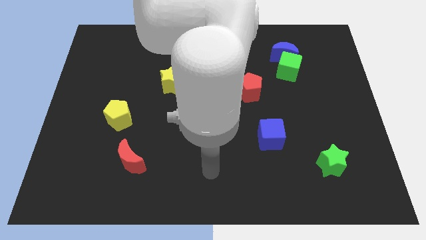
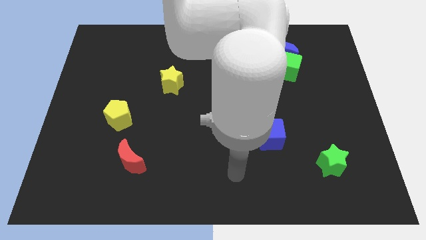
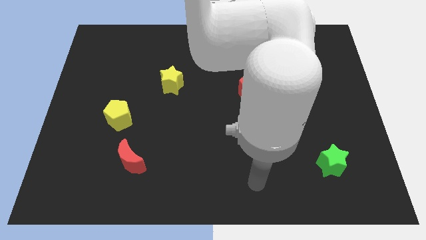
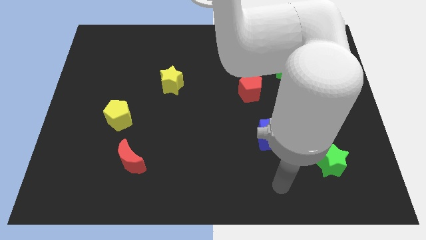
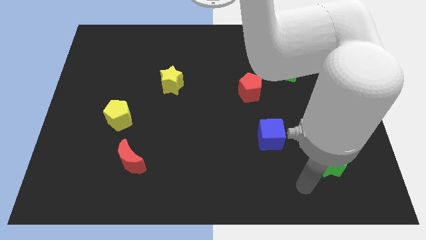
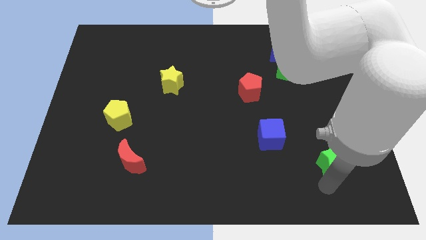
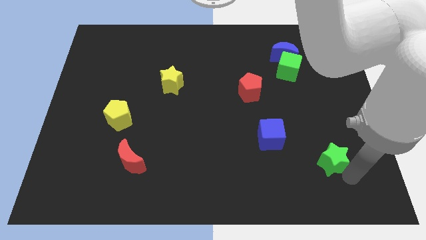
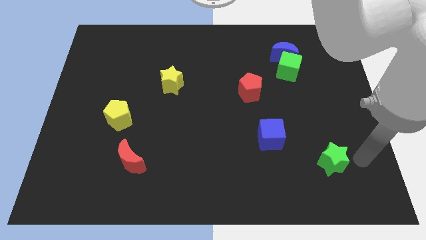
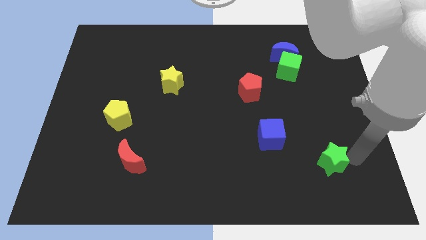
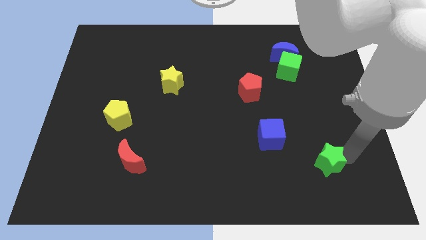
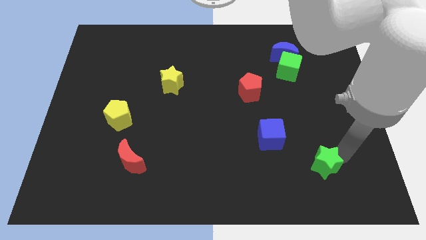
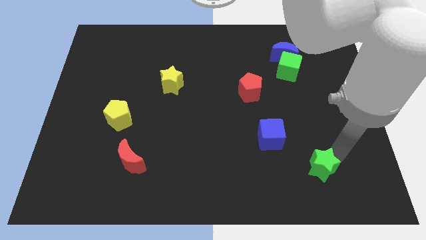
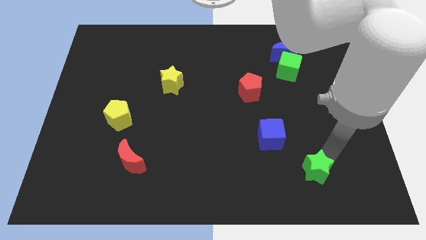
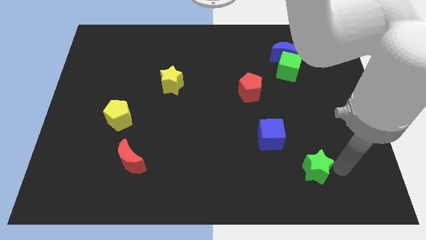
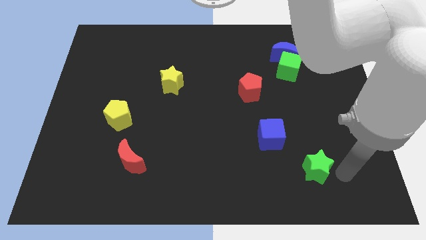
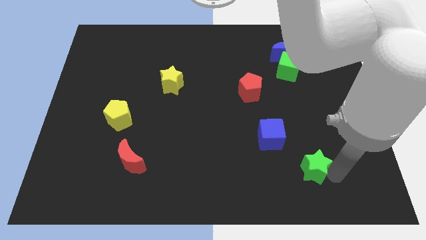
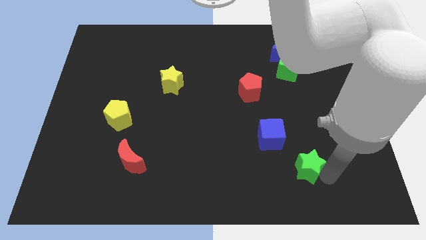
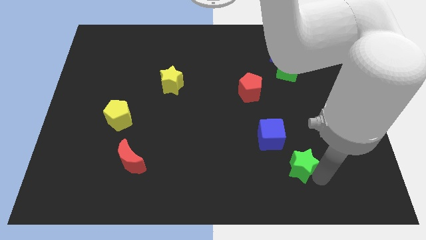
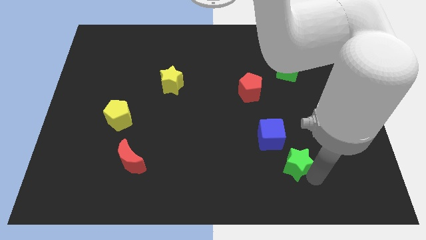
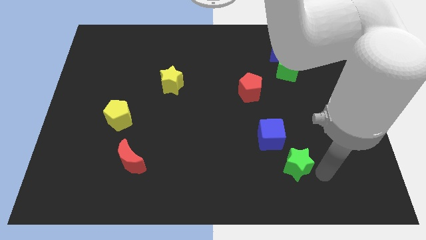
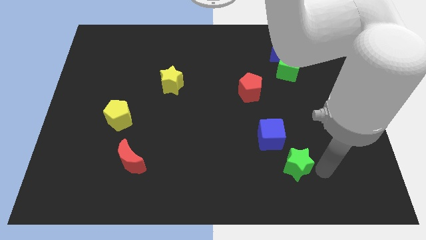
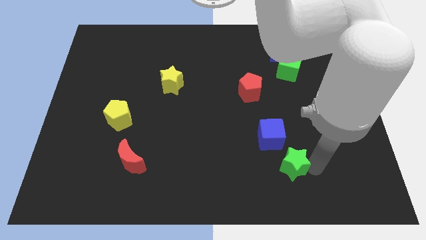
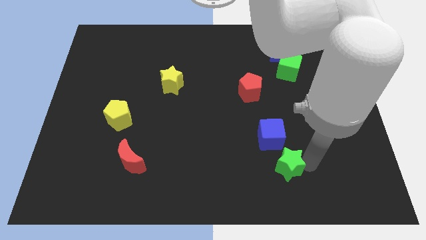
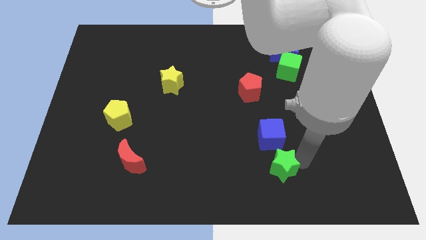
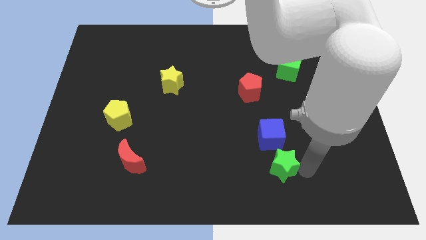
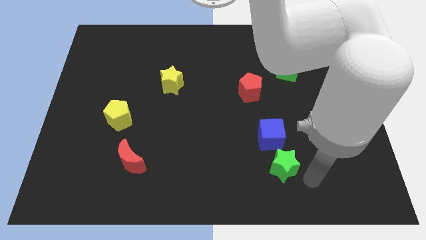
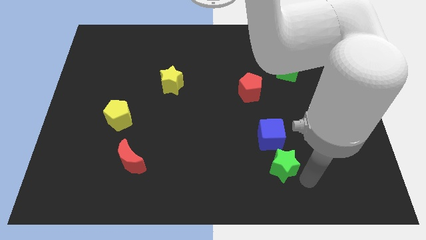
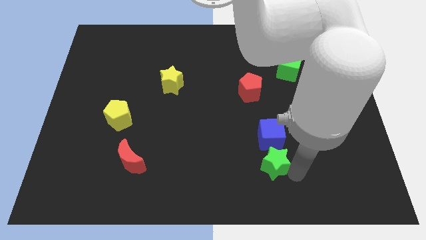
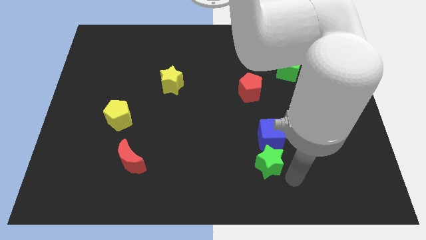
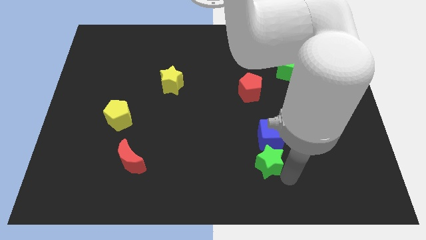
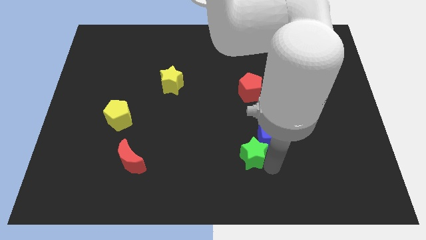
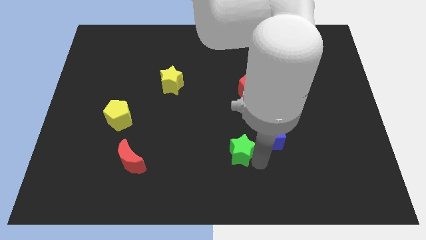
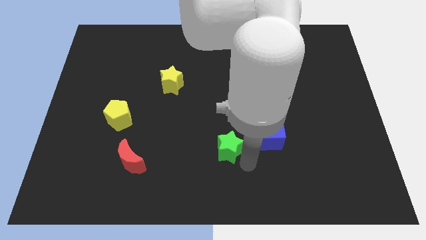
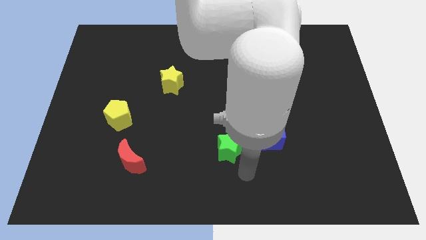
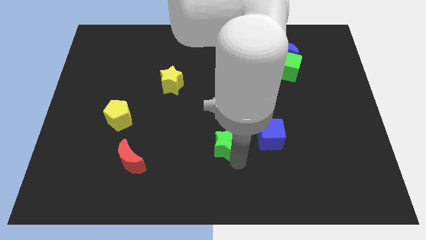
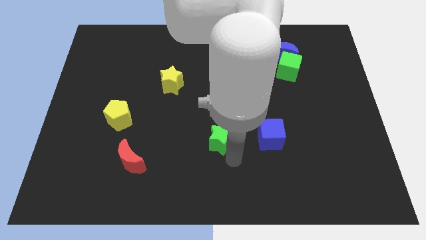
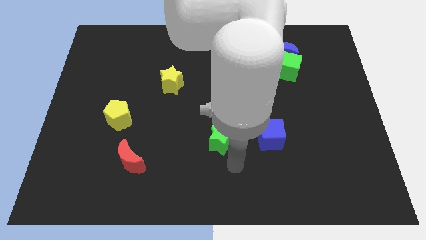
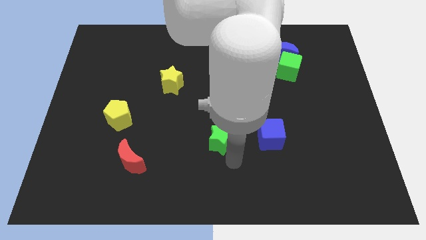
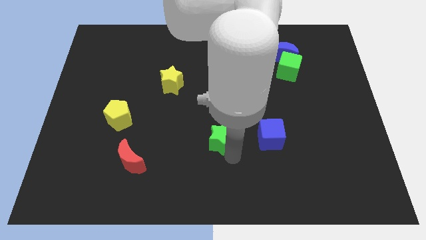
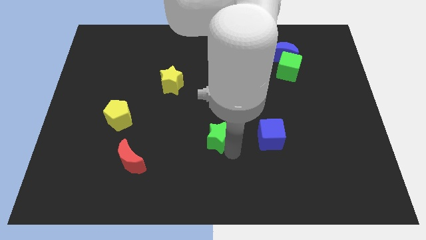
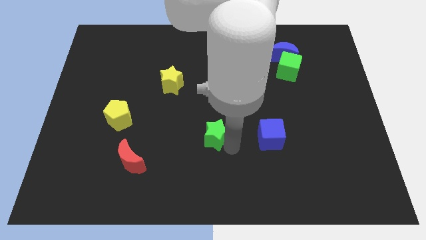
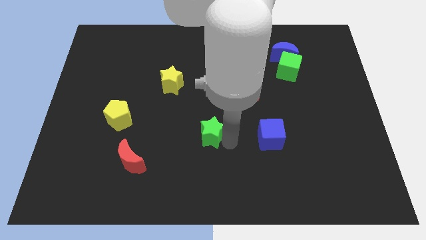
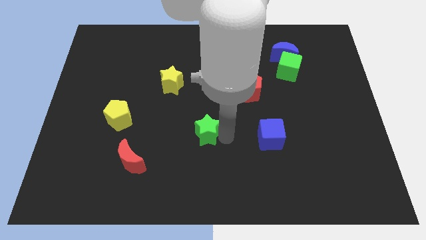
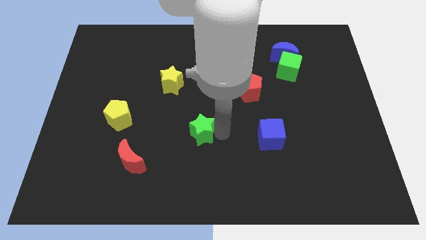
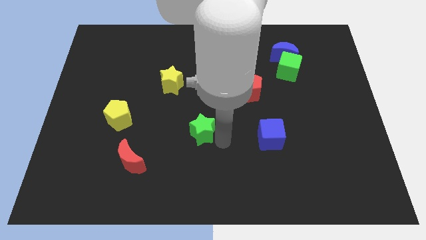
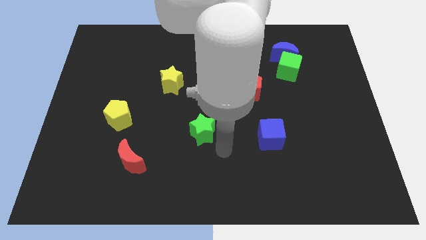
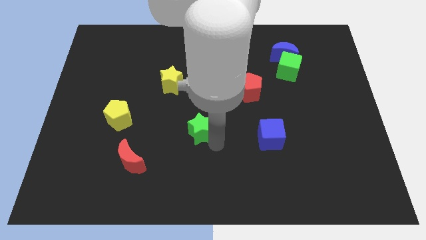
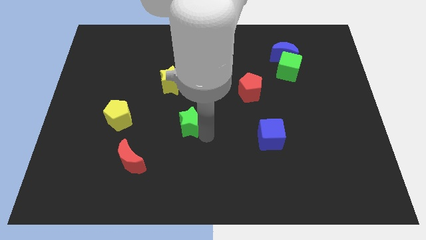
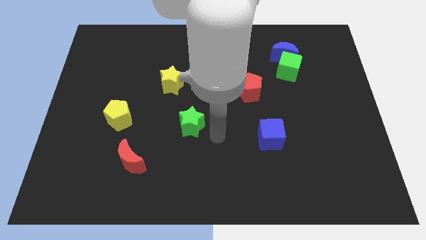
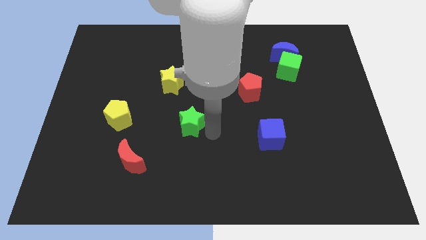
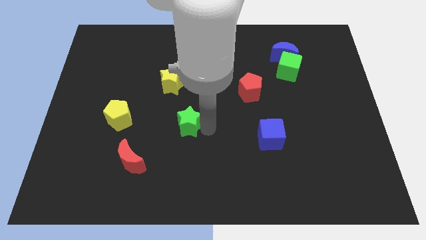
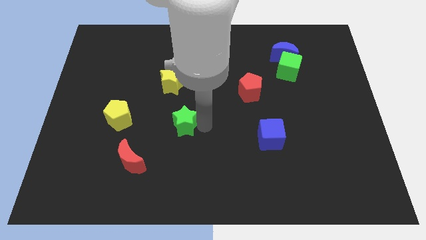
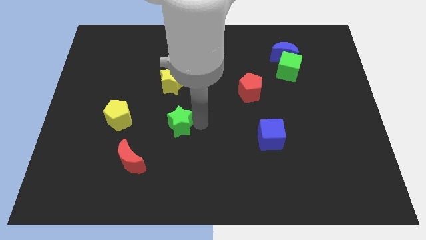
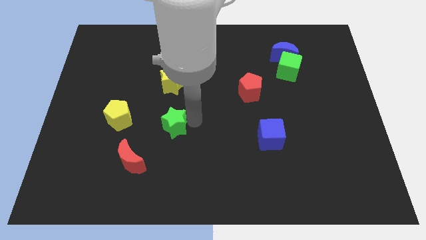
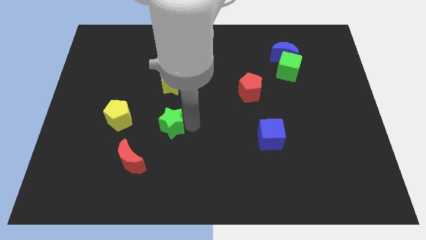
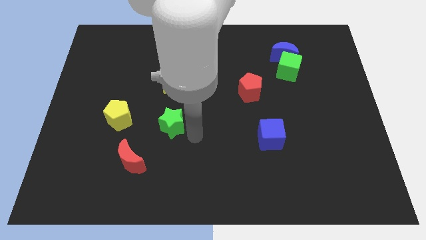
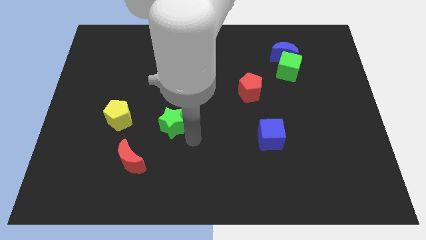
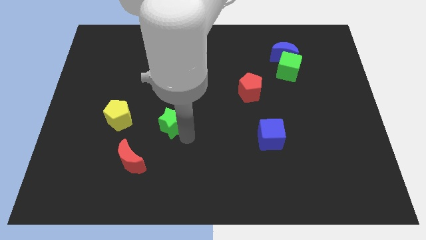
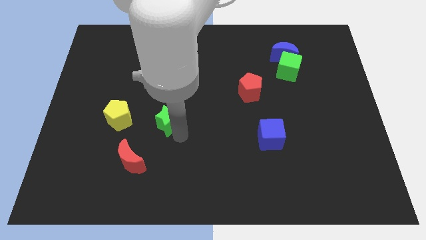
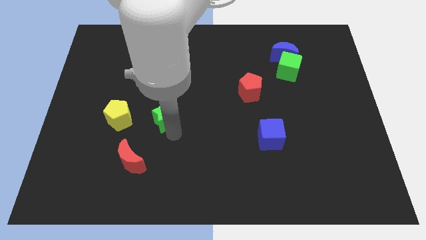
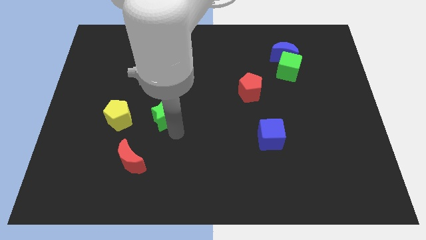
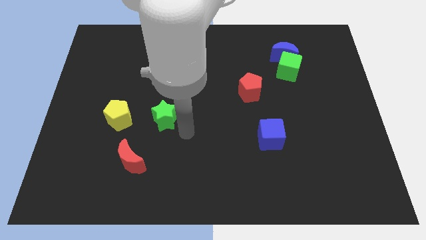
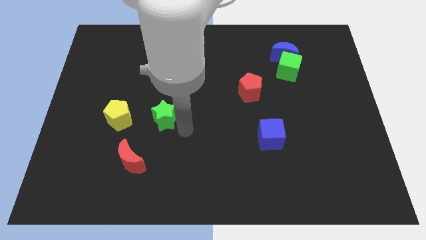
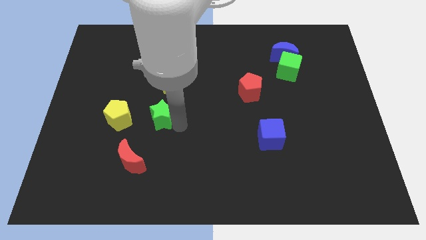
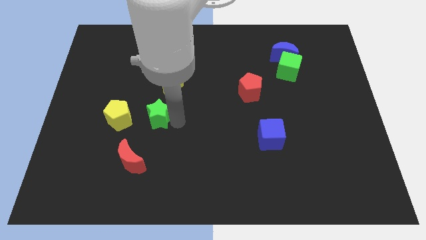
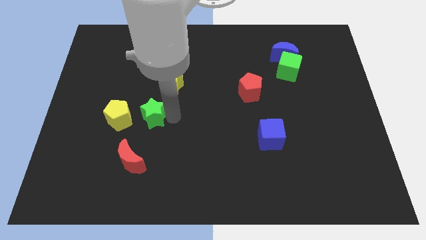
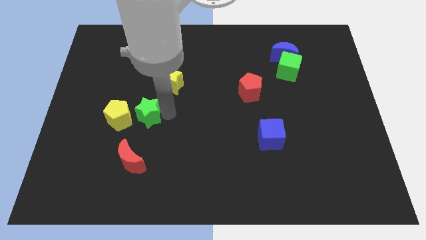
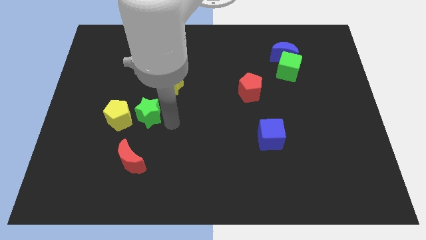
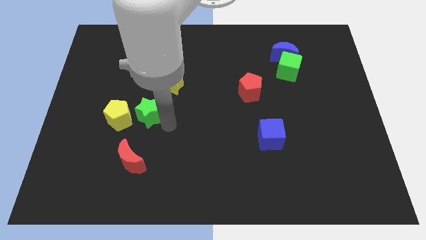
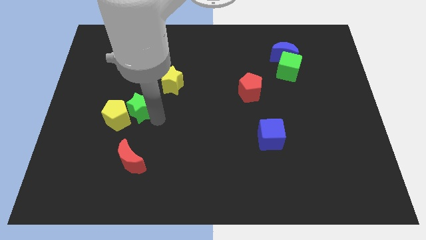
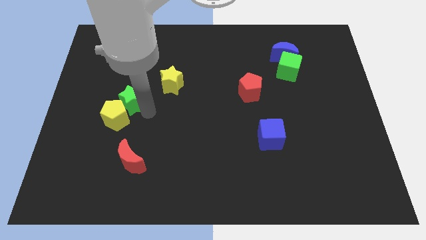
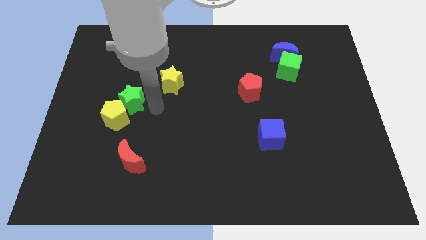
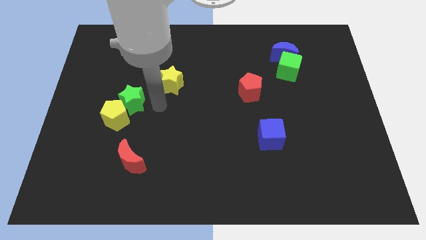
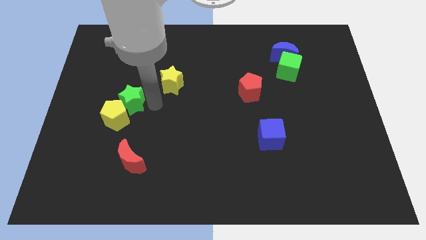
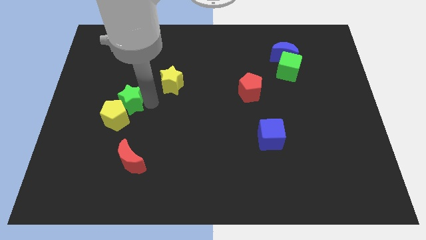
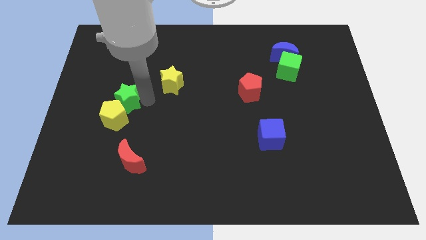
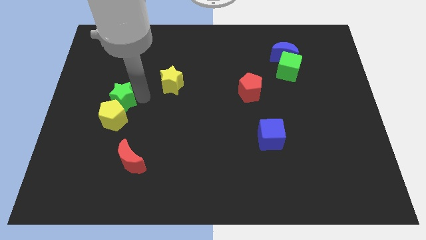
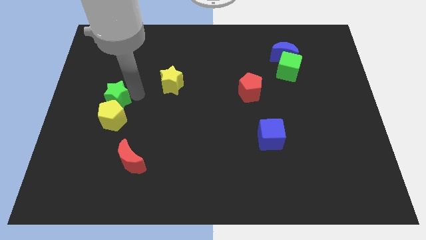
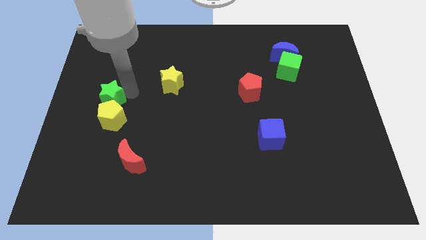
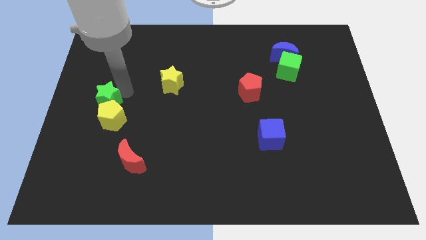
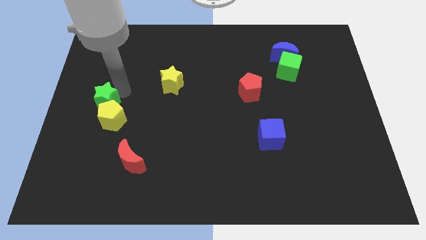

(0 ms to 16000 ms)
push the green star to the left side
